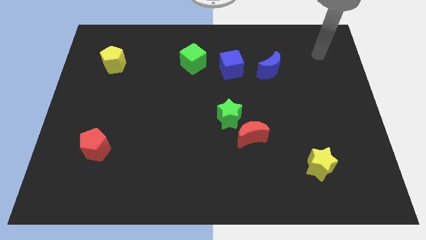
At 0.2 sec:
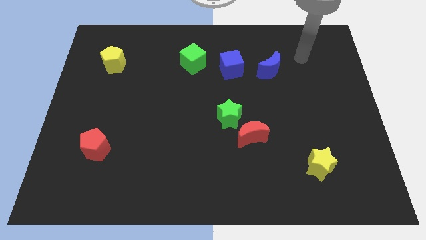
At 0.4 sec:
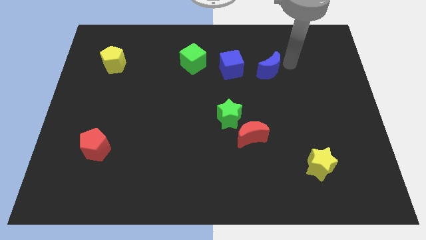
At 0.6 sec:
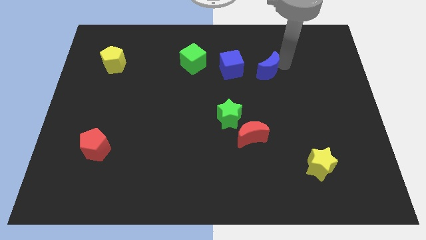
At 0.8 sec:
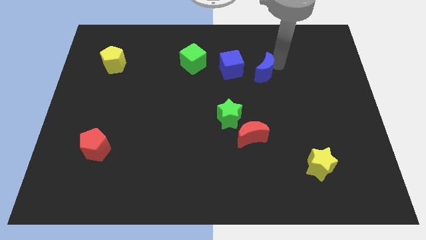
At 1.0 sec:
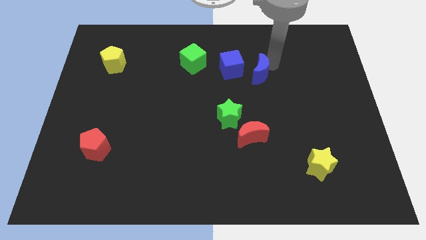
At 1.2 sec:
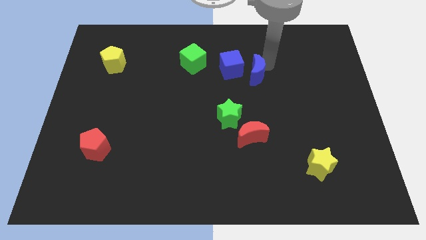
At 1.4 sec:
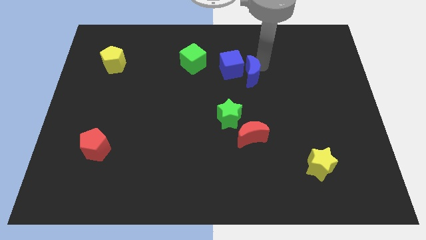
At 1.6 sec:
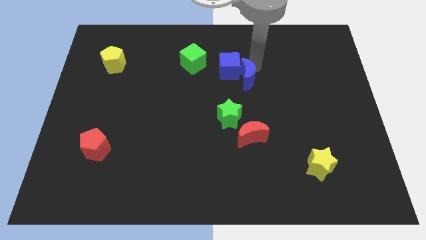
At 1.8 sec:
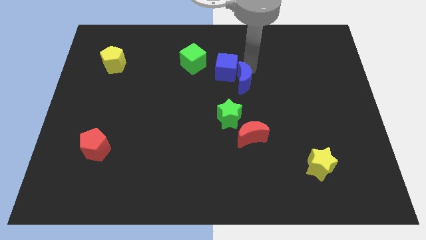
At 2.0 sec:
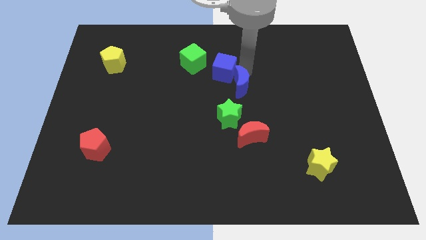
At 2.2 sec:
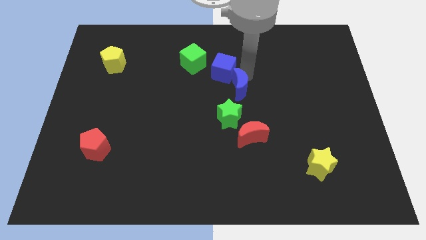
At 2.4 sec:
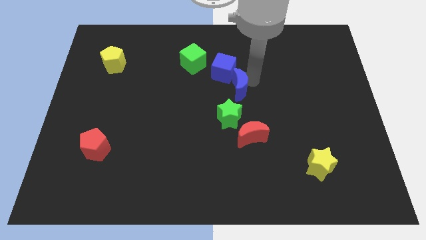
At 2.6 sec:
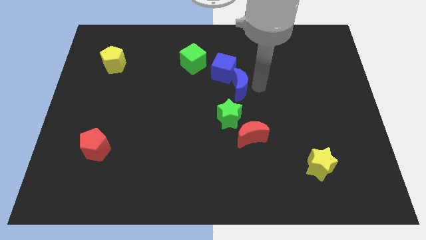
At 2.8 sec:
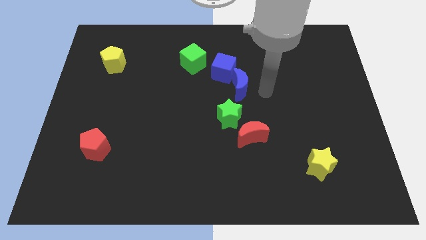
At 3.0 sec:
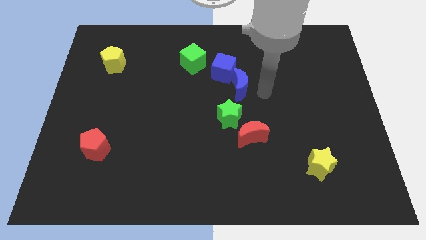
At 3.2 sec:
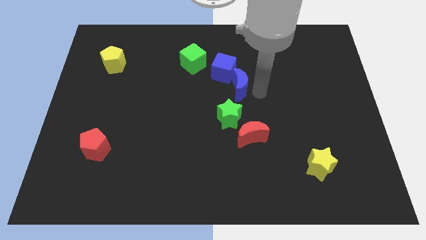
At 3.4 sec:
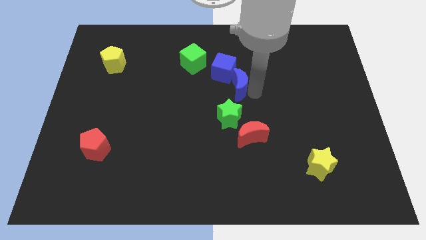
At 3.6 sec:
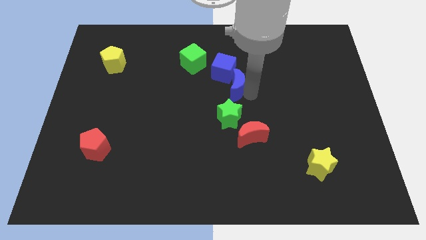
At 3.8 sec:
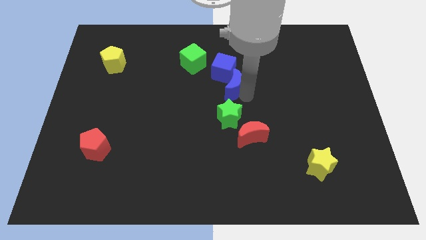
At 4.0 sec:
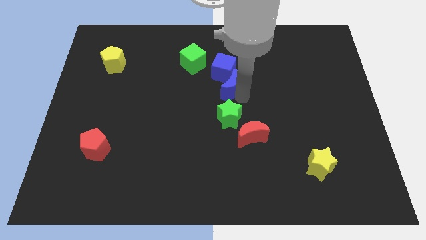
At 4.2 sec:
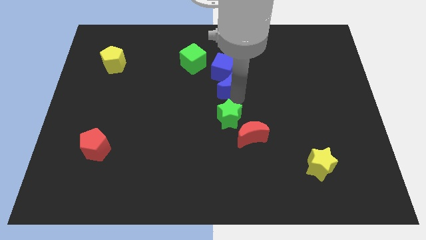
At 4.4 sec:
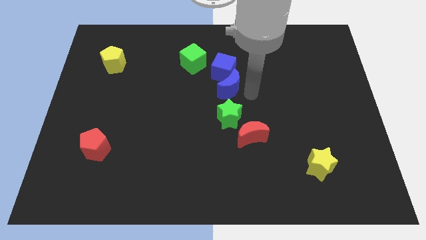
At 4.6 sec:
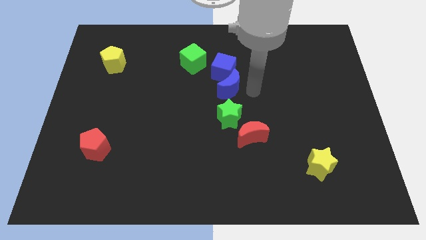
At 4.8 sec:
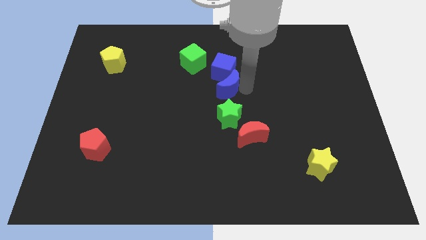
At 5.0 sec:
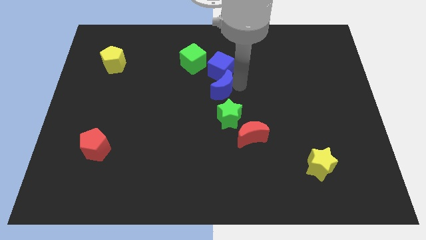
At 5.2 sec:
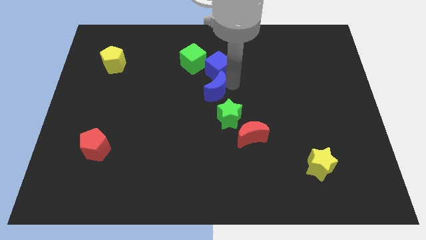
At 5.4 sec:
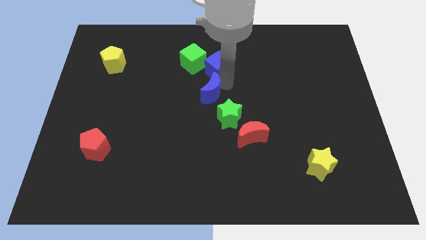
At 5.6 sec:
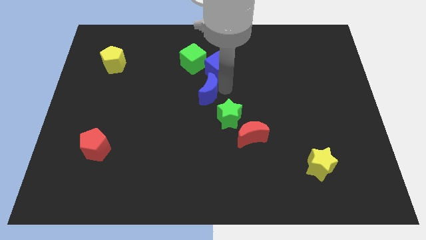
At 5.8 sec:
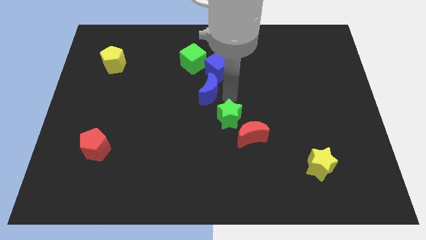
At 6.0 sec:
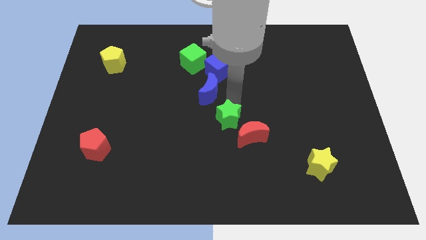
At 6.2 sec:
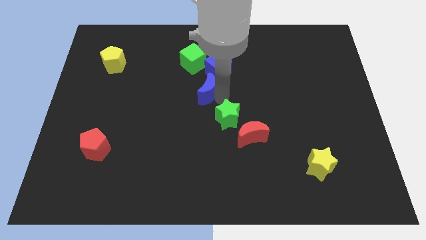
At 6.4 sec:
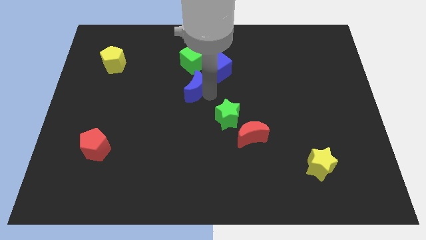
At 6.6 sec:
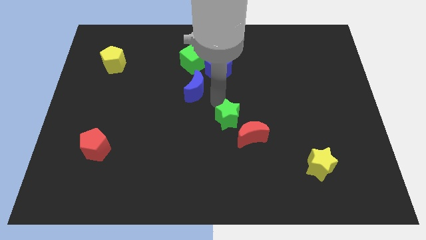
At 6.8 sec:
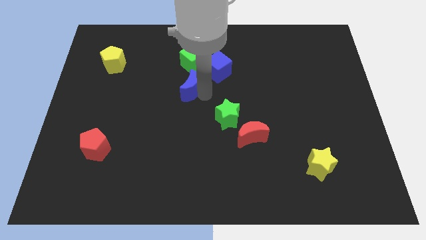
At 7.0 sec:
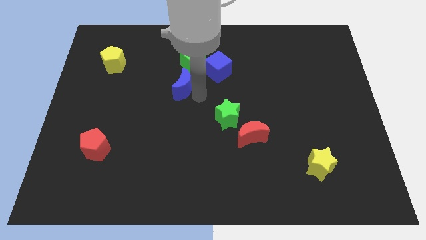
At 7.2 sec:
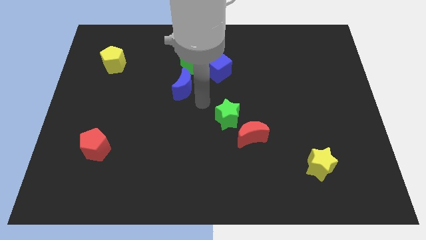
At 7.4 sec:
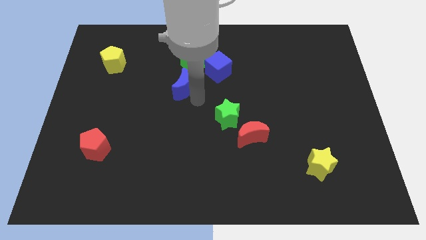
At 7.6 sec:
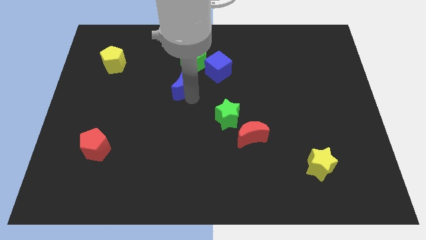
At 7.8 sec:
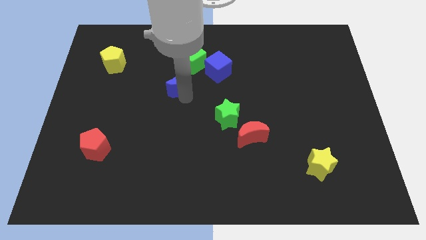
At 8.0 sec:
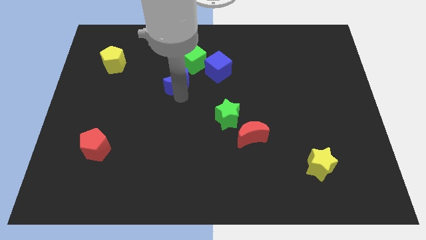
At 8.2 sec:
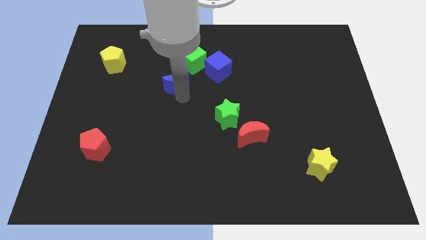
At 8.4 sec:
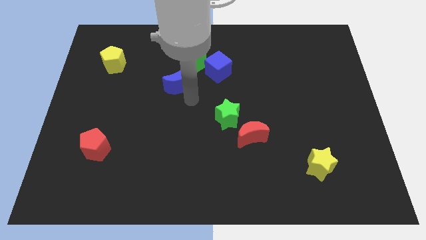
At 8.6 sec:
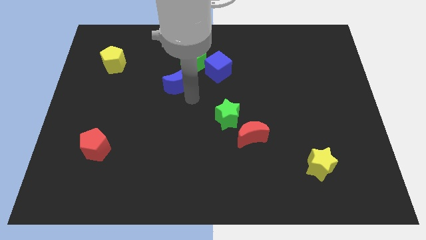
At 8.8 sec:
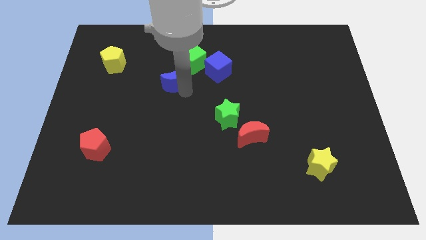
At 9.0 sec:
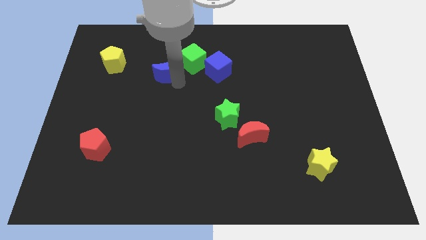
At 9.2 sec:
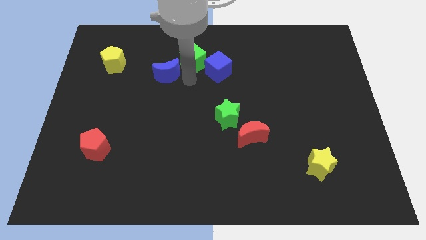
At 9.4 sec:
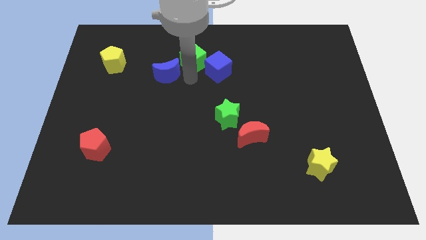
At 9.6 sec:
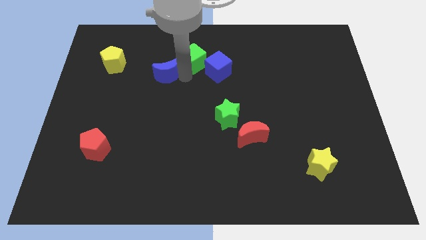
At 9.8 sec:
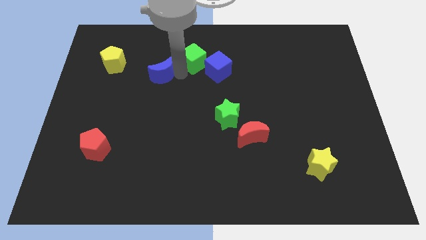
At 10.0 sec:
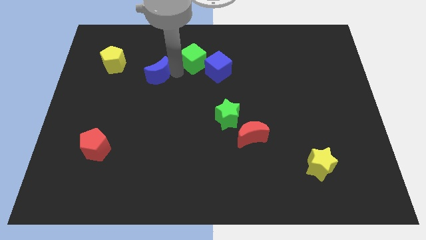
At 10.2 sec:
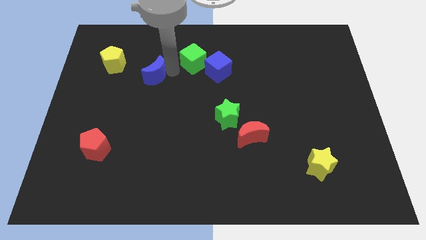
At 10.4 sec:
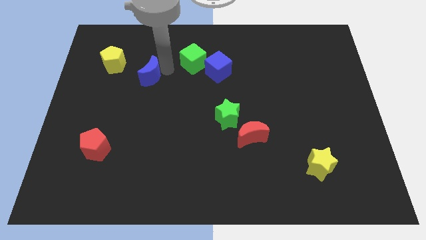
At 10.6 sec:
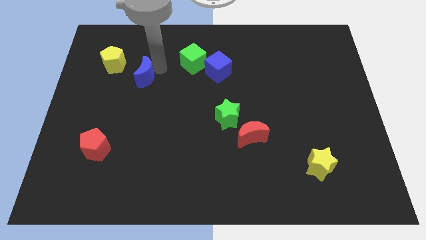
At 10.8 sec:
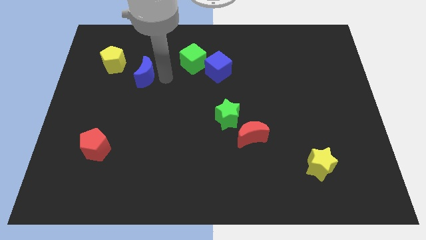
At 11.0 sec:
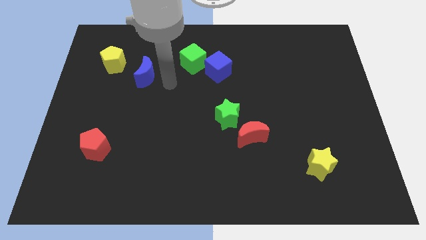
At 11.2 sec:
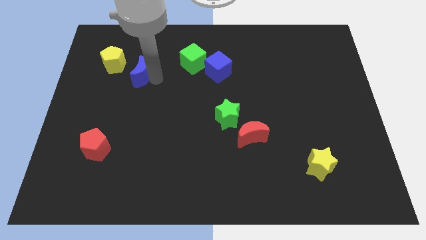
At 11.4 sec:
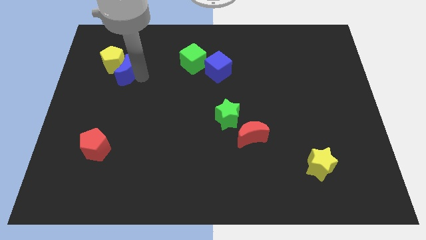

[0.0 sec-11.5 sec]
put the blue moon to the yellow pentagon
